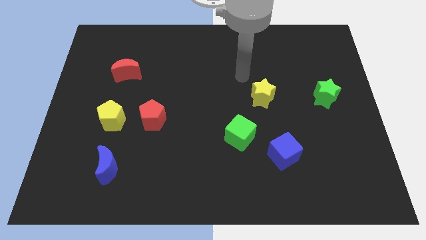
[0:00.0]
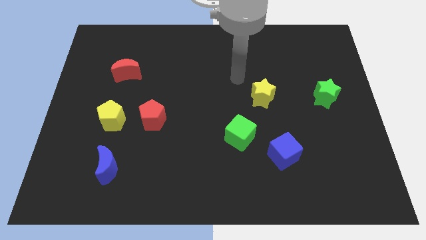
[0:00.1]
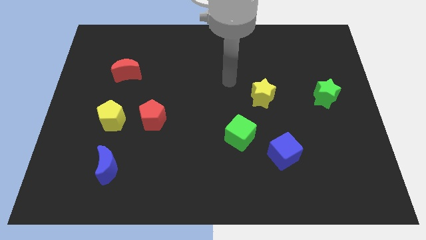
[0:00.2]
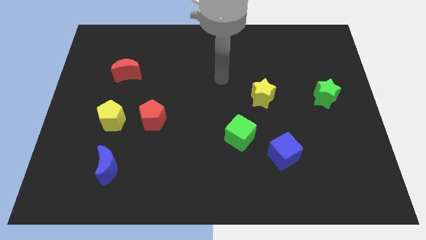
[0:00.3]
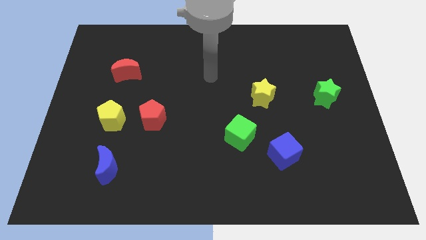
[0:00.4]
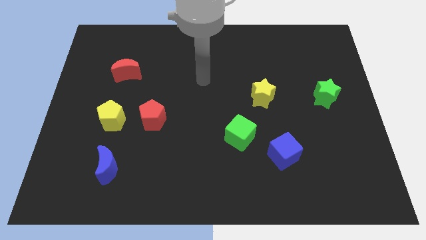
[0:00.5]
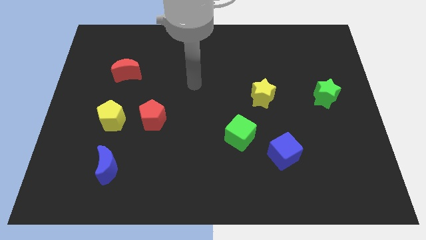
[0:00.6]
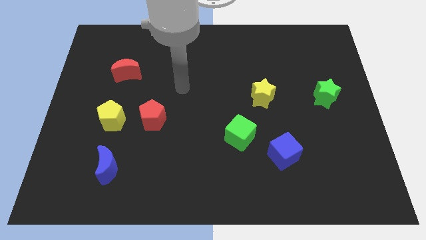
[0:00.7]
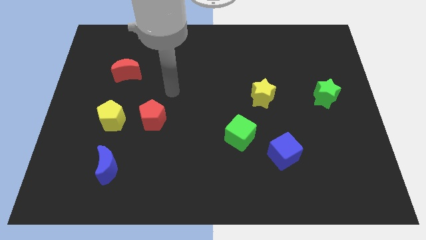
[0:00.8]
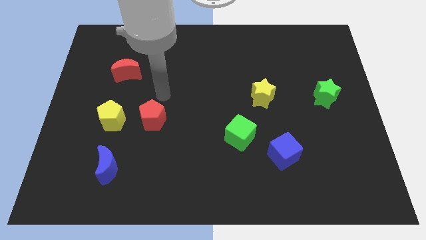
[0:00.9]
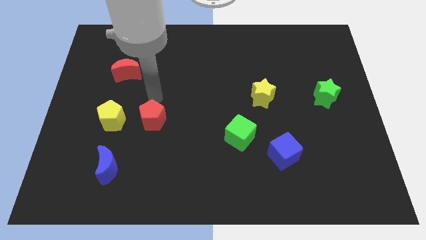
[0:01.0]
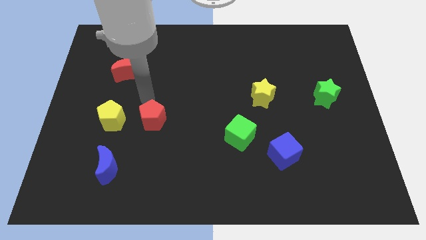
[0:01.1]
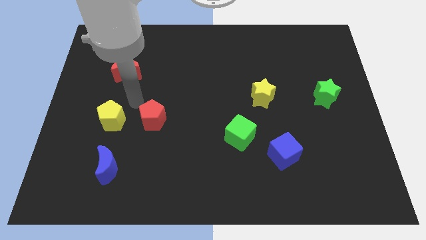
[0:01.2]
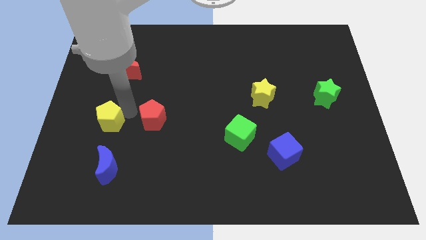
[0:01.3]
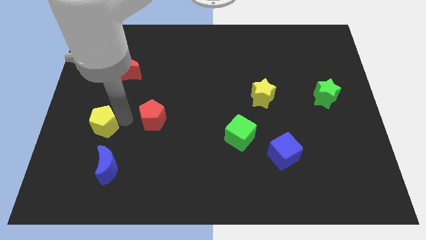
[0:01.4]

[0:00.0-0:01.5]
move the red pentagon away from the yellow pentagon

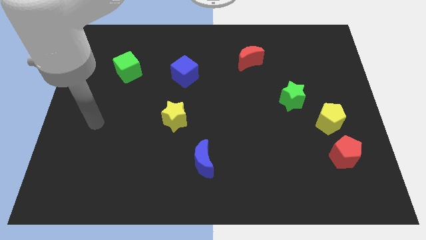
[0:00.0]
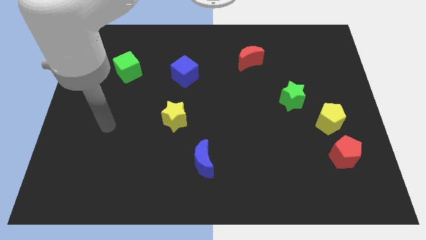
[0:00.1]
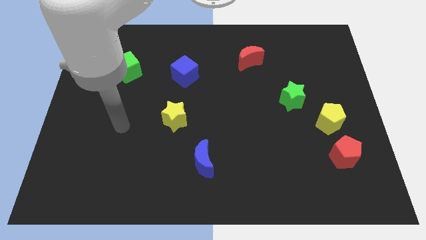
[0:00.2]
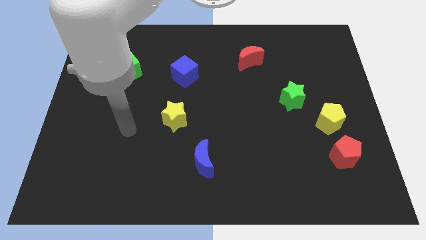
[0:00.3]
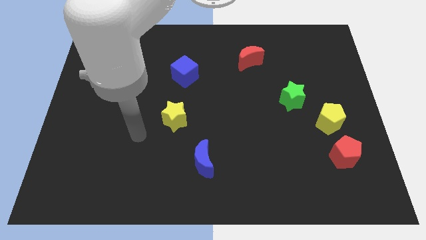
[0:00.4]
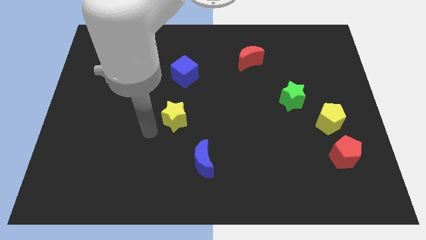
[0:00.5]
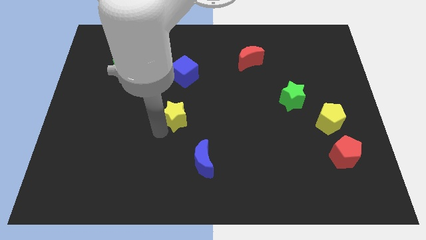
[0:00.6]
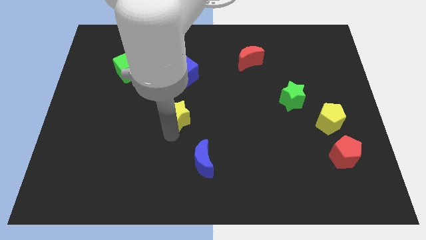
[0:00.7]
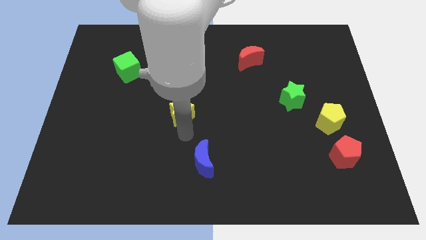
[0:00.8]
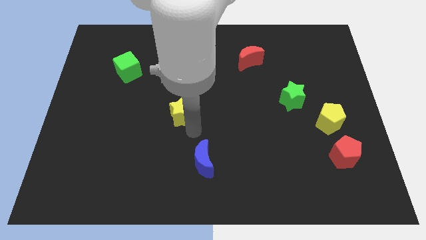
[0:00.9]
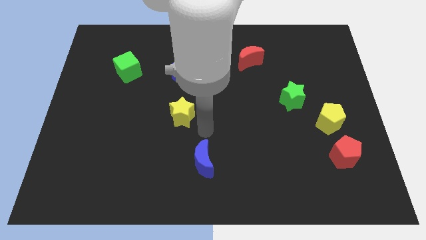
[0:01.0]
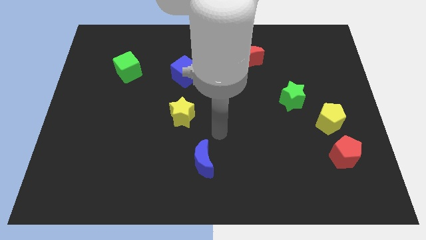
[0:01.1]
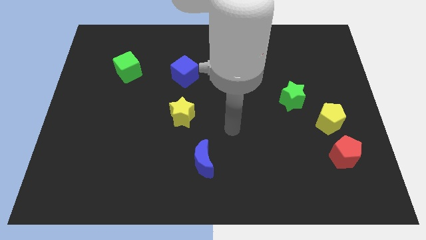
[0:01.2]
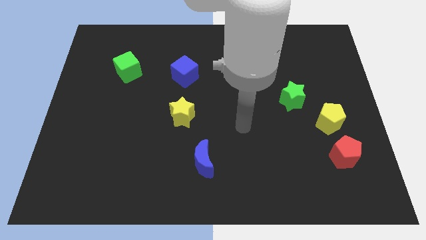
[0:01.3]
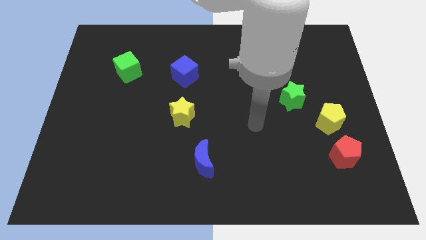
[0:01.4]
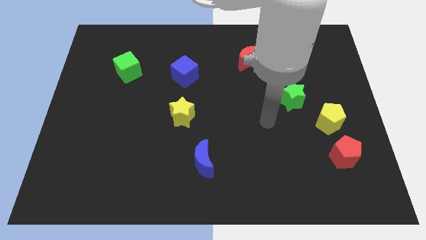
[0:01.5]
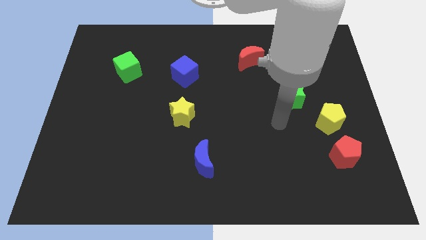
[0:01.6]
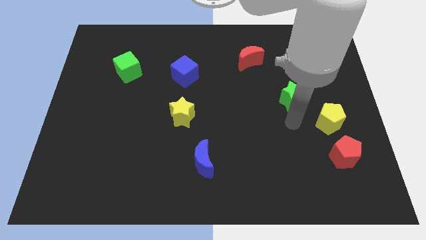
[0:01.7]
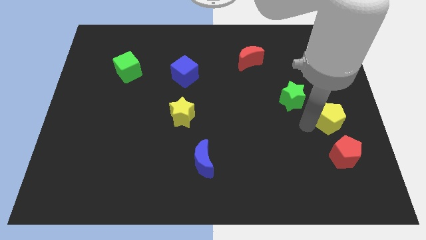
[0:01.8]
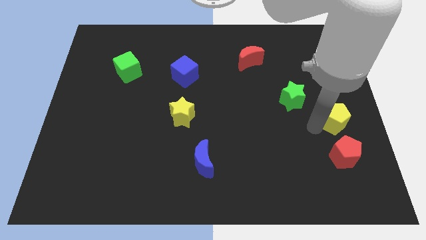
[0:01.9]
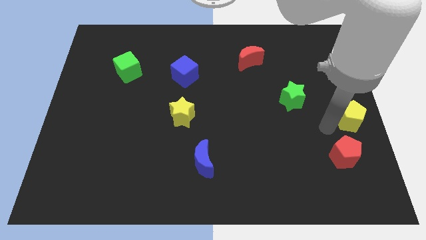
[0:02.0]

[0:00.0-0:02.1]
pull the red pentagon apart from the yellow pentagon

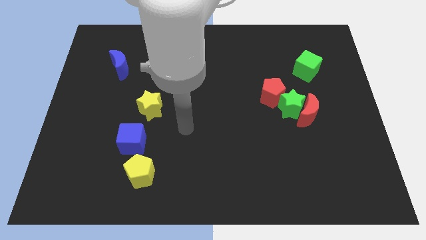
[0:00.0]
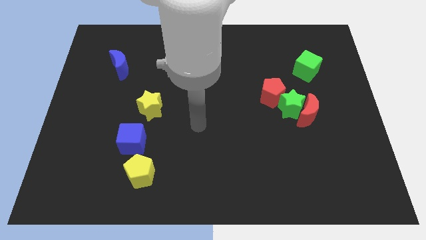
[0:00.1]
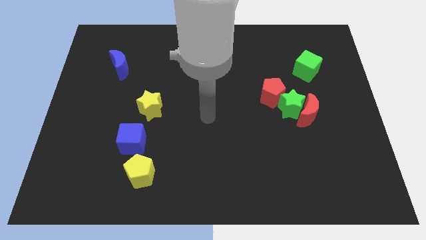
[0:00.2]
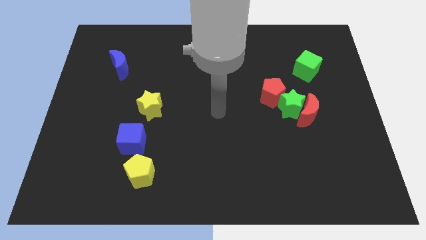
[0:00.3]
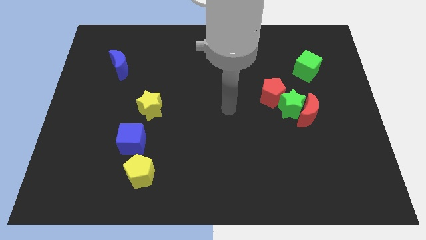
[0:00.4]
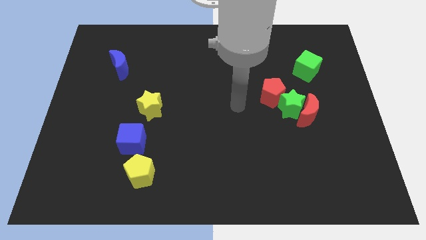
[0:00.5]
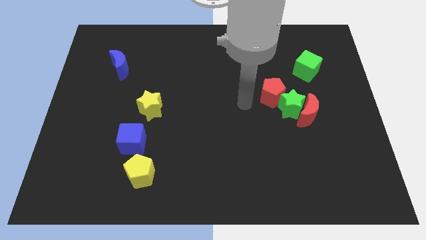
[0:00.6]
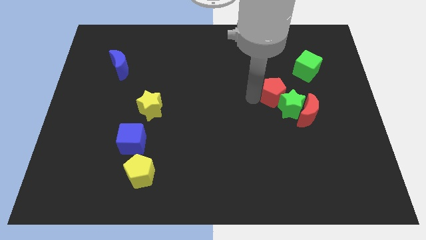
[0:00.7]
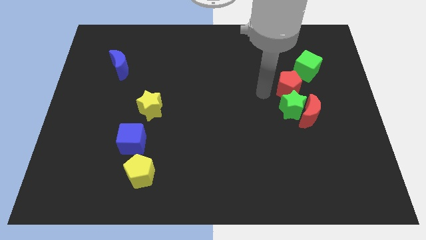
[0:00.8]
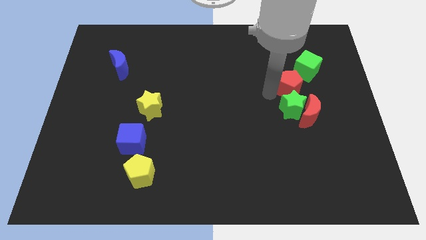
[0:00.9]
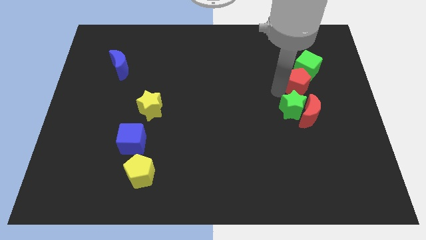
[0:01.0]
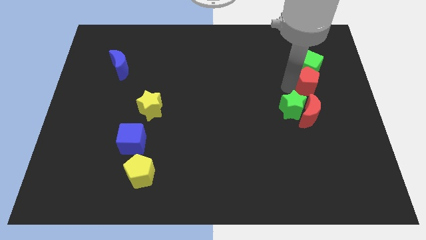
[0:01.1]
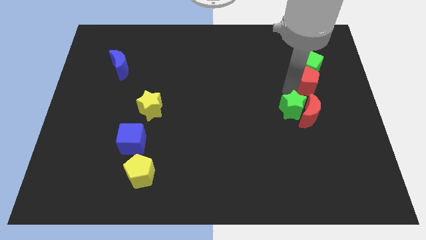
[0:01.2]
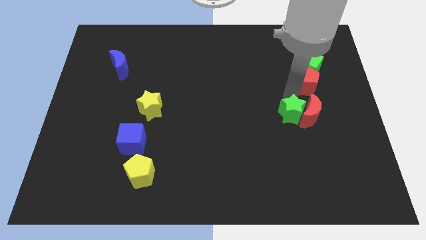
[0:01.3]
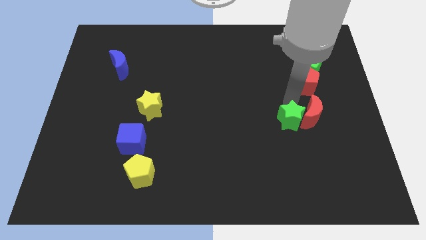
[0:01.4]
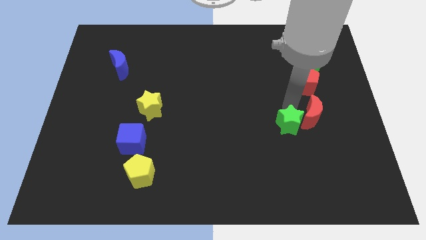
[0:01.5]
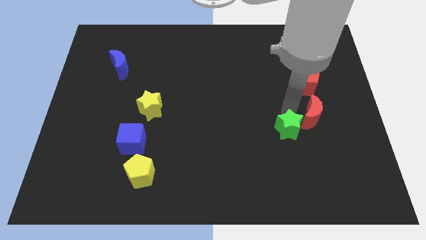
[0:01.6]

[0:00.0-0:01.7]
move the green star away from the red moon and red pentagon

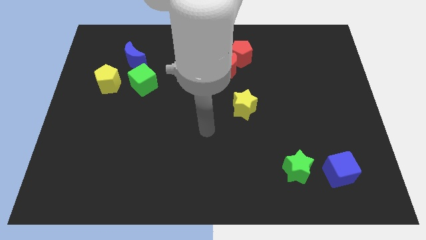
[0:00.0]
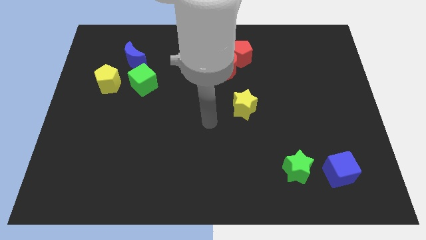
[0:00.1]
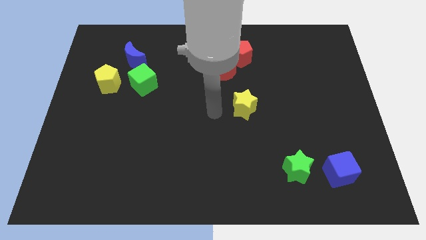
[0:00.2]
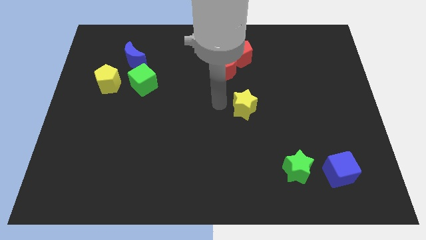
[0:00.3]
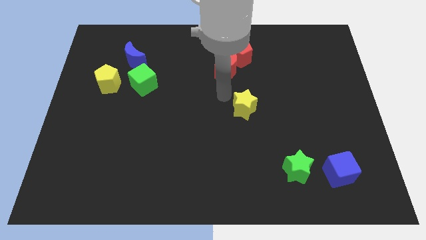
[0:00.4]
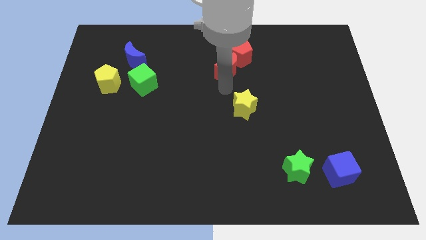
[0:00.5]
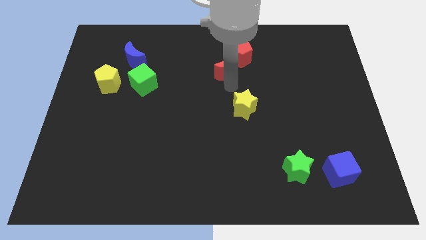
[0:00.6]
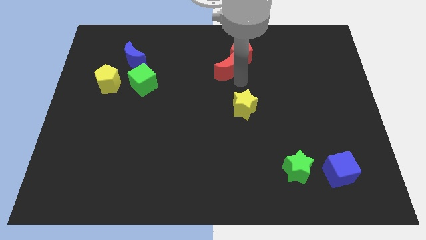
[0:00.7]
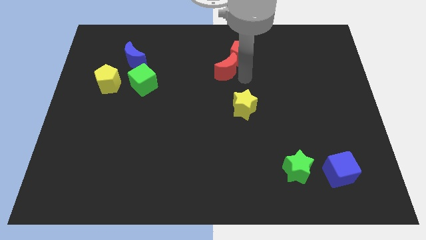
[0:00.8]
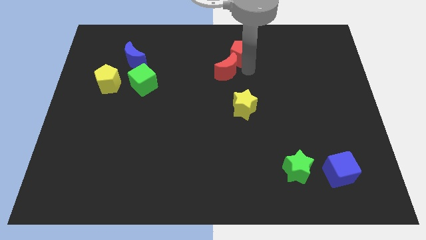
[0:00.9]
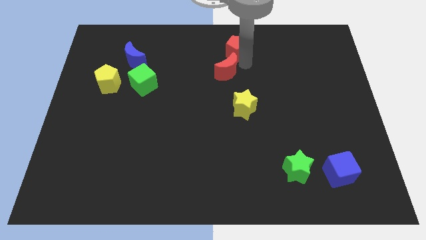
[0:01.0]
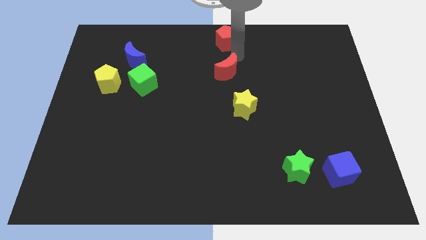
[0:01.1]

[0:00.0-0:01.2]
separate the red moon from the red pentagon

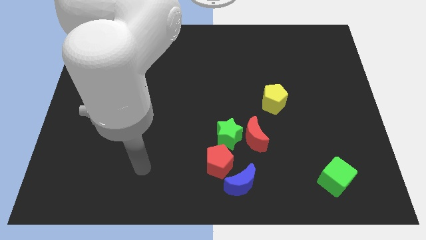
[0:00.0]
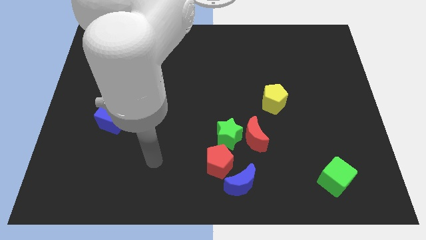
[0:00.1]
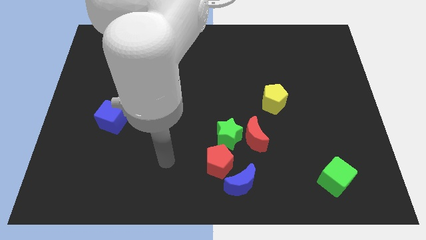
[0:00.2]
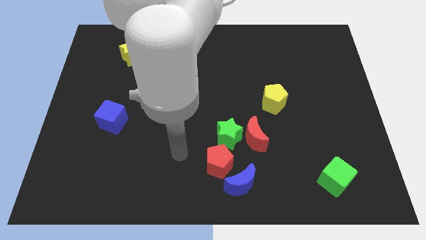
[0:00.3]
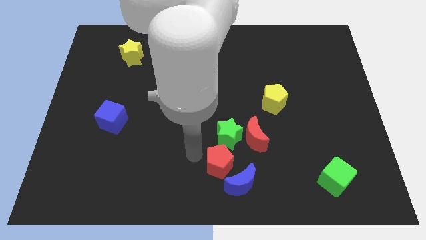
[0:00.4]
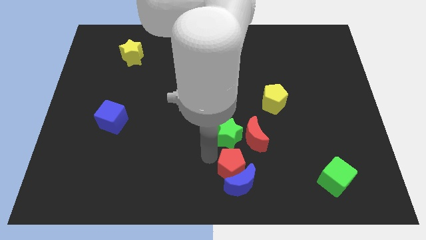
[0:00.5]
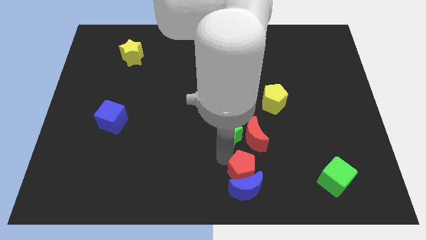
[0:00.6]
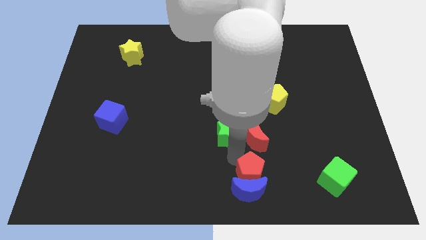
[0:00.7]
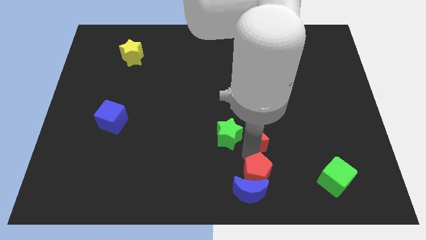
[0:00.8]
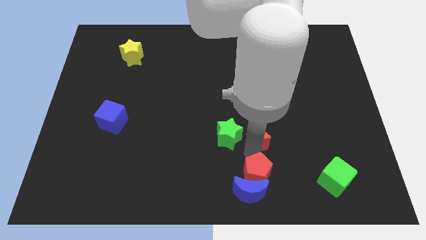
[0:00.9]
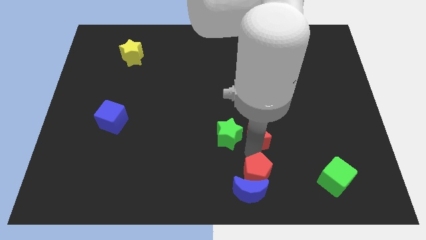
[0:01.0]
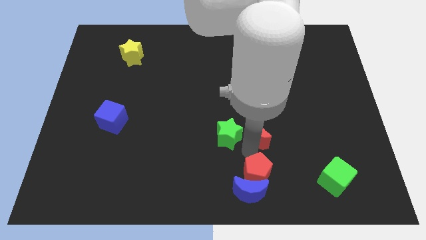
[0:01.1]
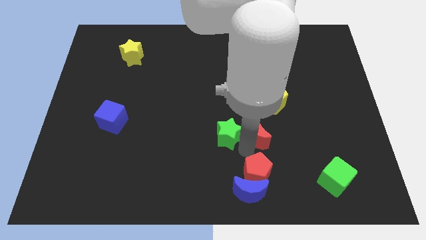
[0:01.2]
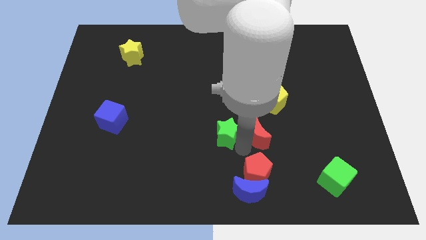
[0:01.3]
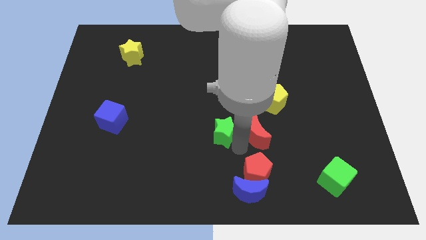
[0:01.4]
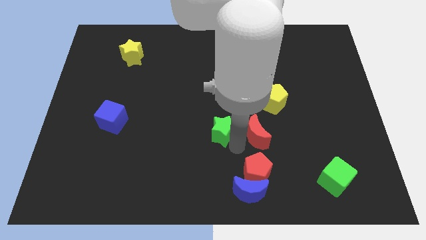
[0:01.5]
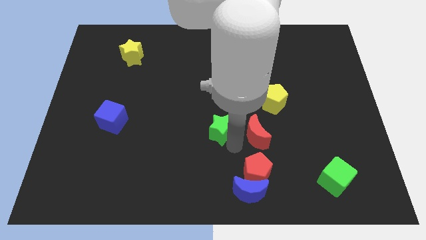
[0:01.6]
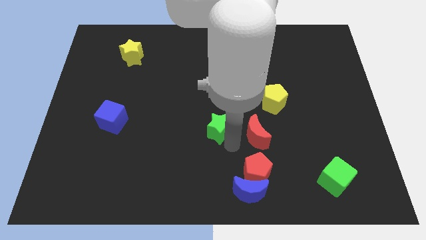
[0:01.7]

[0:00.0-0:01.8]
separate the green star from the red moon and red pentagon

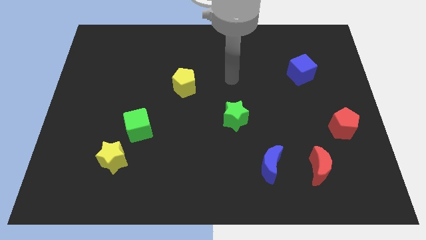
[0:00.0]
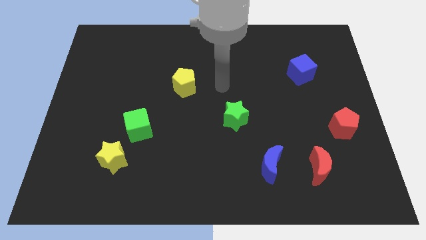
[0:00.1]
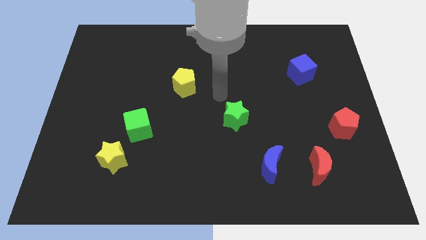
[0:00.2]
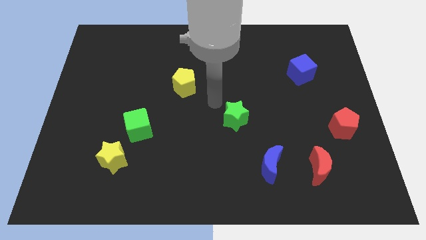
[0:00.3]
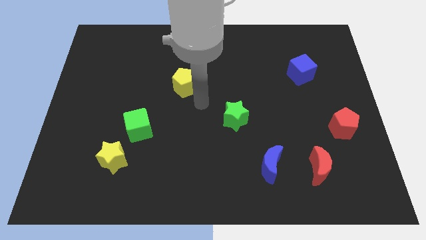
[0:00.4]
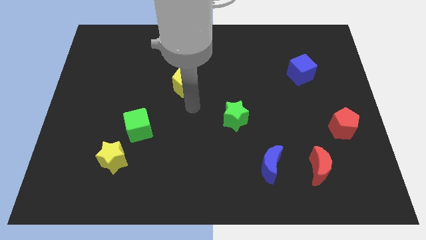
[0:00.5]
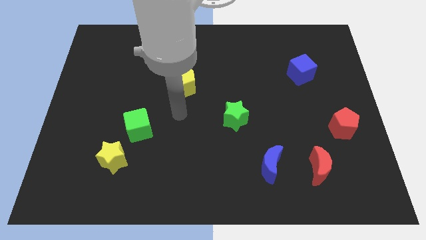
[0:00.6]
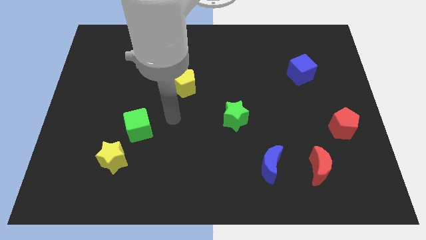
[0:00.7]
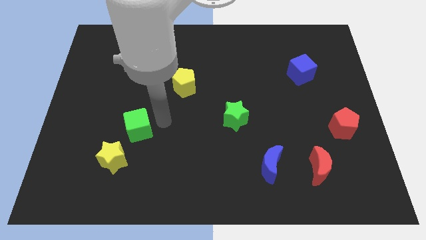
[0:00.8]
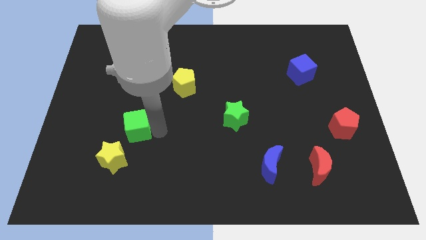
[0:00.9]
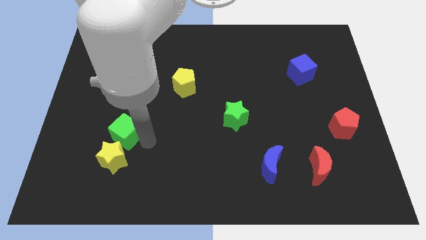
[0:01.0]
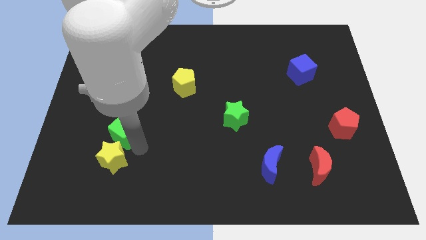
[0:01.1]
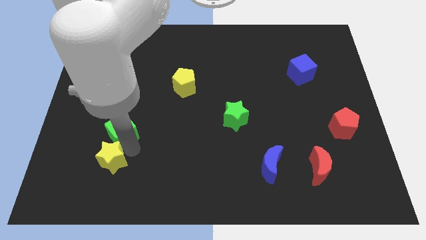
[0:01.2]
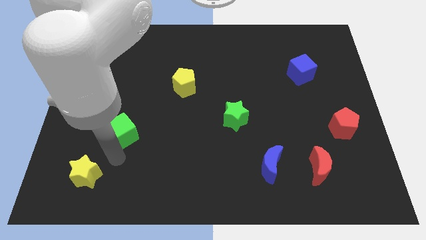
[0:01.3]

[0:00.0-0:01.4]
move the green cube away from the yellow star
